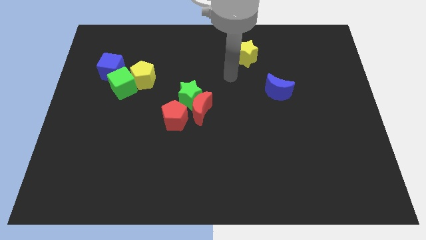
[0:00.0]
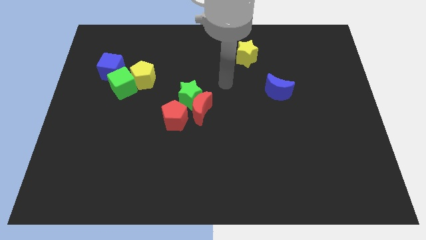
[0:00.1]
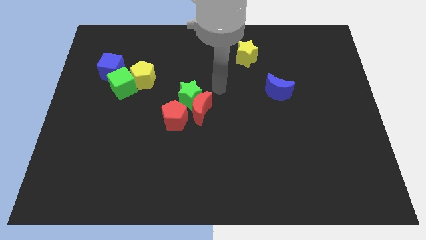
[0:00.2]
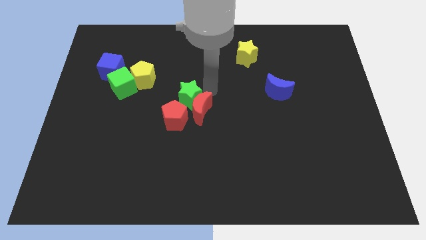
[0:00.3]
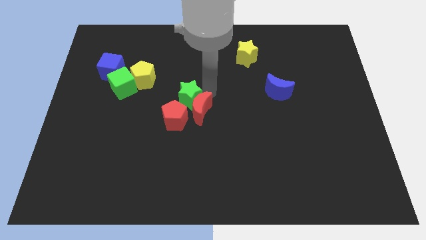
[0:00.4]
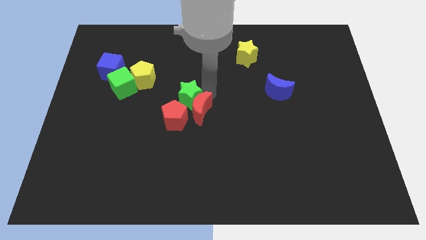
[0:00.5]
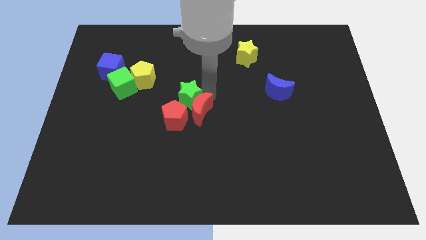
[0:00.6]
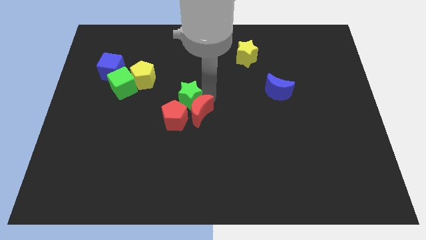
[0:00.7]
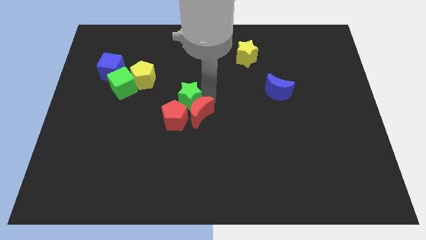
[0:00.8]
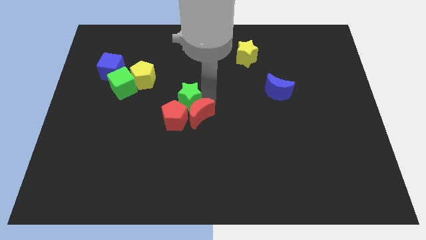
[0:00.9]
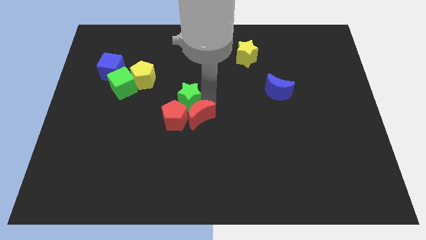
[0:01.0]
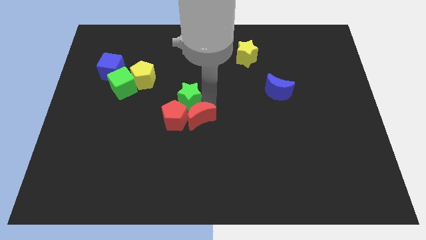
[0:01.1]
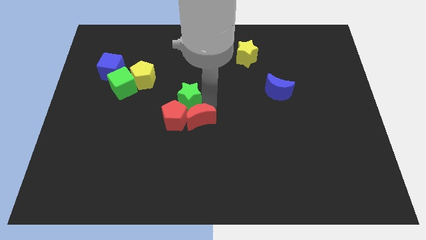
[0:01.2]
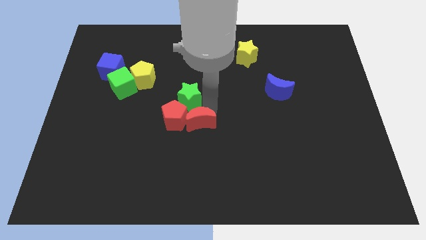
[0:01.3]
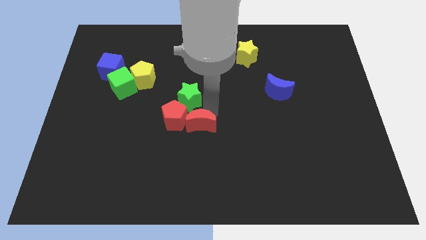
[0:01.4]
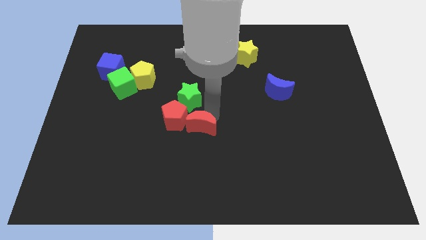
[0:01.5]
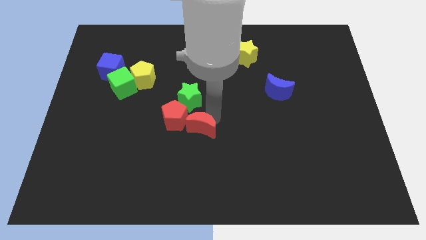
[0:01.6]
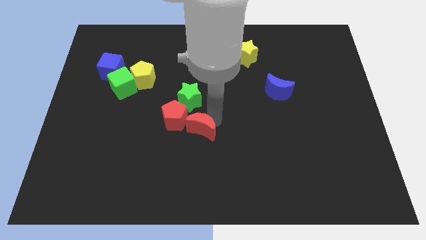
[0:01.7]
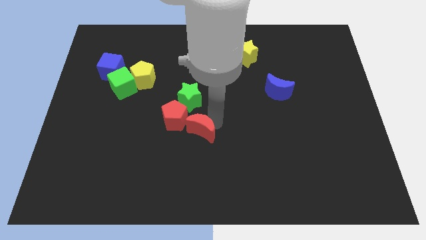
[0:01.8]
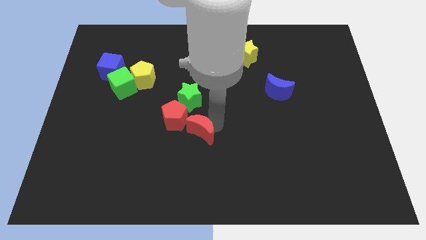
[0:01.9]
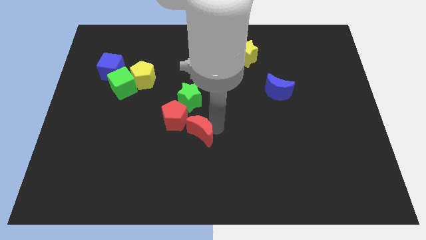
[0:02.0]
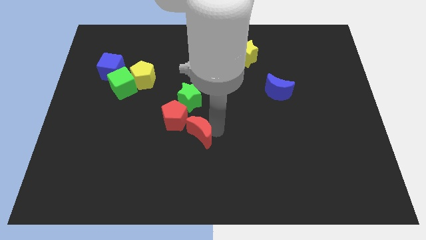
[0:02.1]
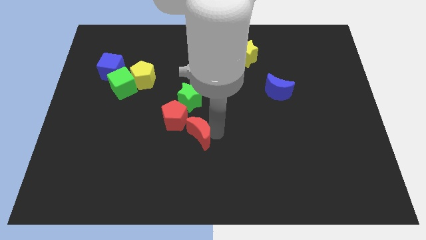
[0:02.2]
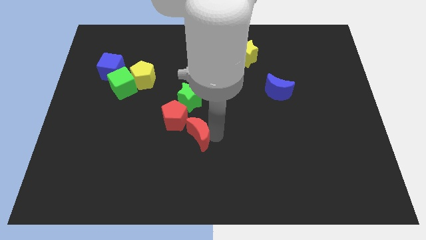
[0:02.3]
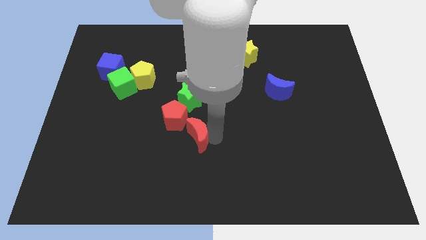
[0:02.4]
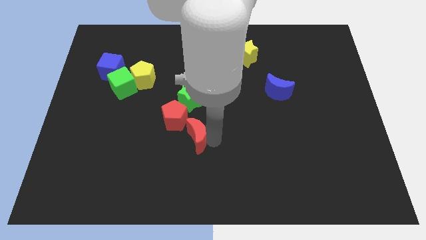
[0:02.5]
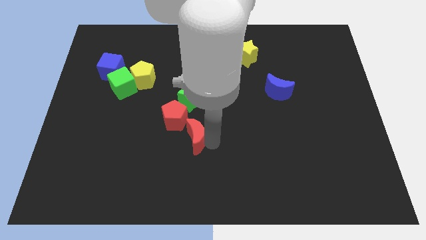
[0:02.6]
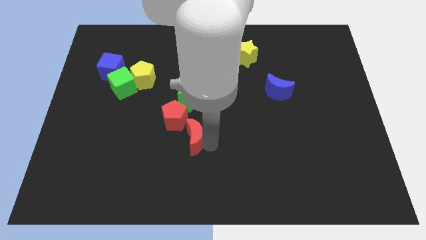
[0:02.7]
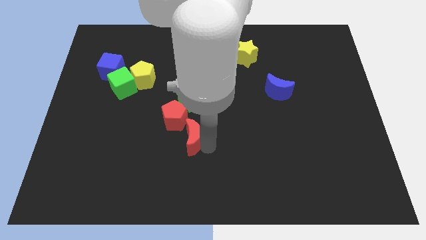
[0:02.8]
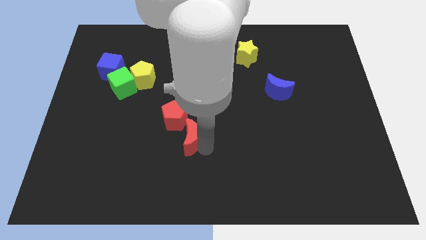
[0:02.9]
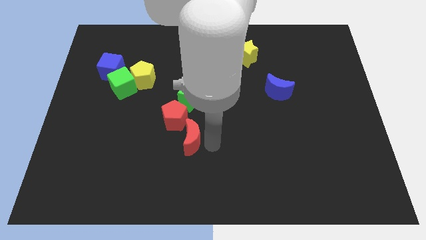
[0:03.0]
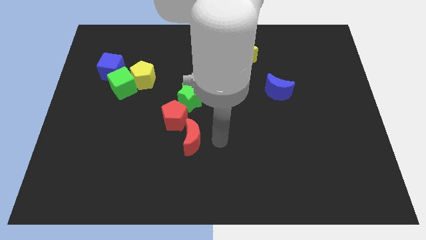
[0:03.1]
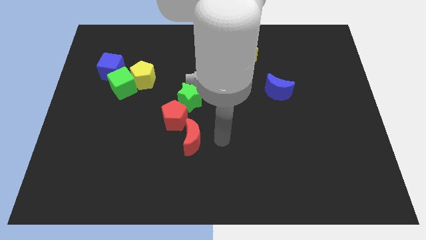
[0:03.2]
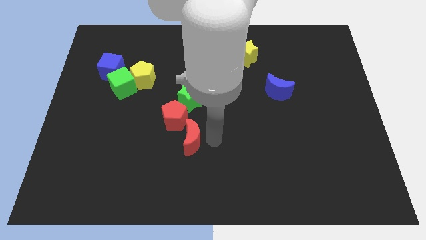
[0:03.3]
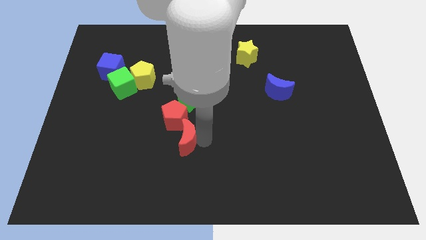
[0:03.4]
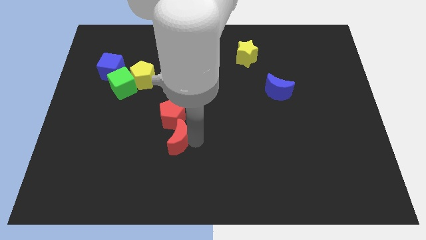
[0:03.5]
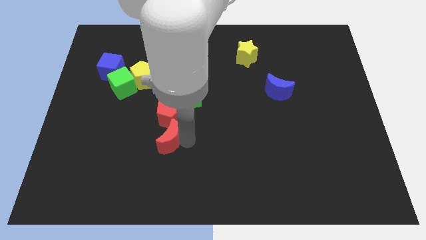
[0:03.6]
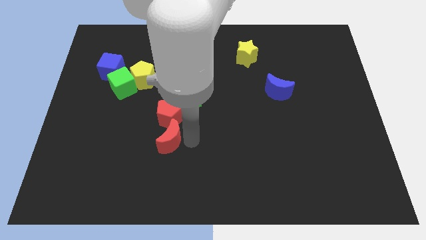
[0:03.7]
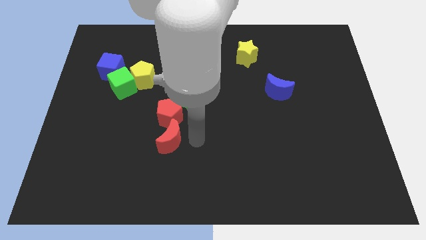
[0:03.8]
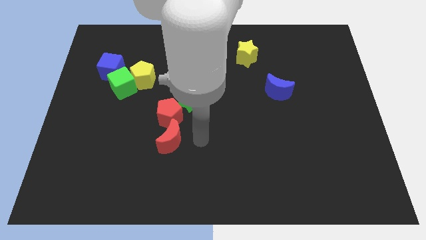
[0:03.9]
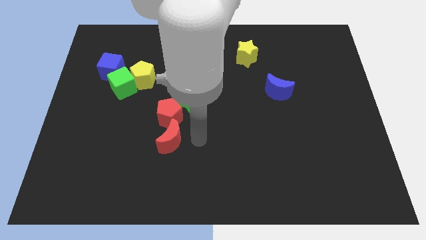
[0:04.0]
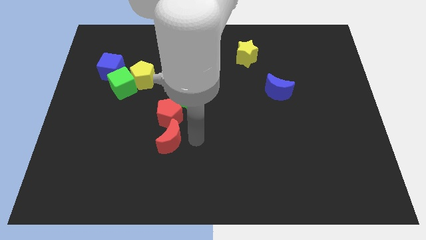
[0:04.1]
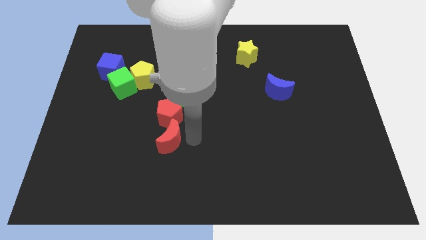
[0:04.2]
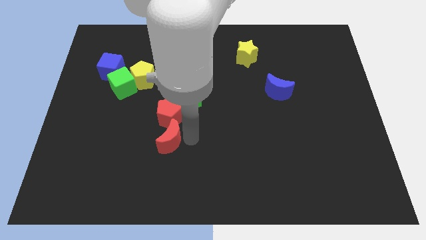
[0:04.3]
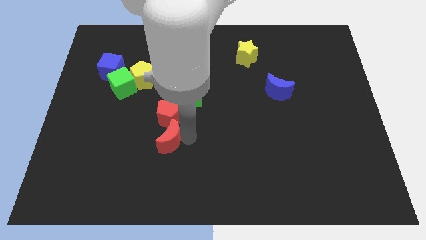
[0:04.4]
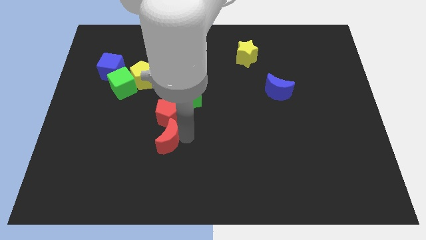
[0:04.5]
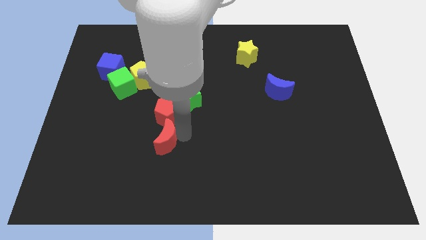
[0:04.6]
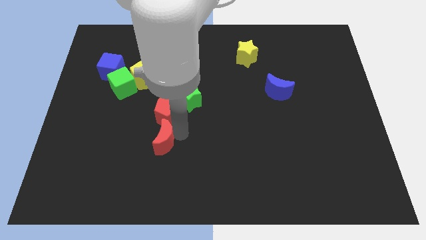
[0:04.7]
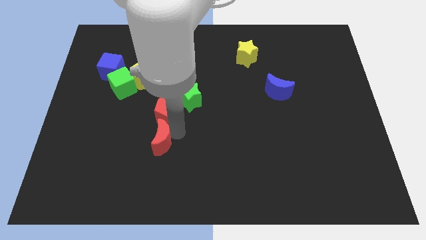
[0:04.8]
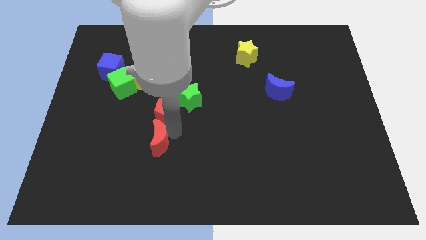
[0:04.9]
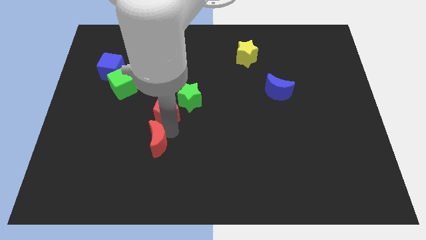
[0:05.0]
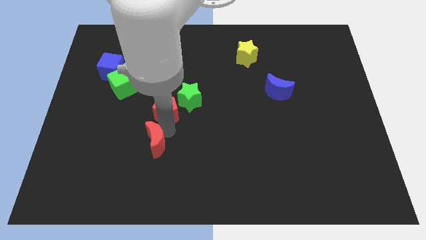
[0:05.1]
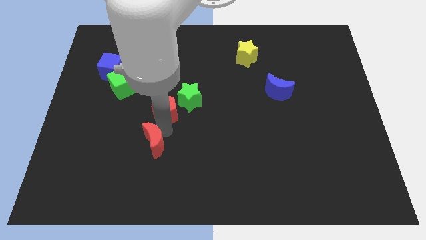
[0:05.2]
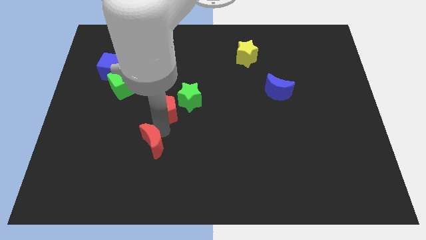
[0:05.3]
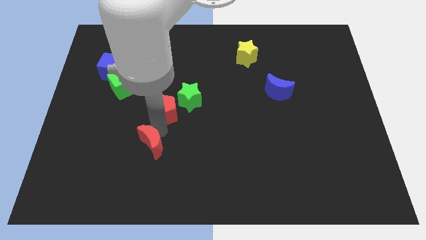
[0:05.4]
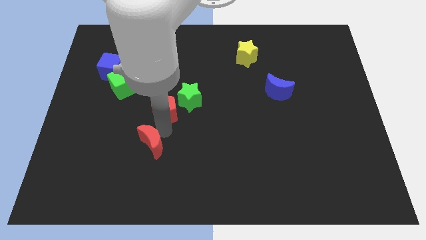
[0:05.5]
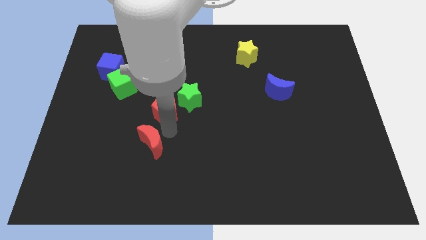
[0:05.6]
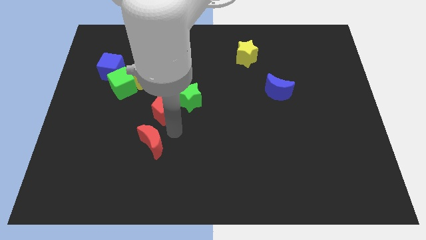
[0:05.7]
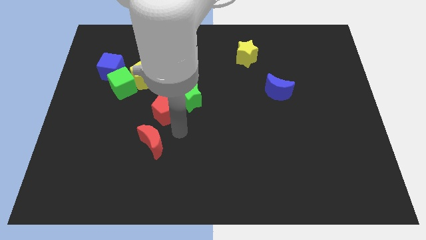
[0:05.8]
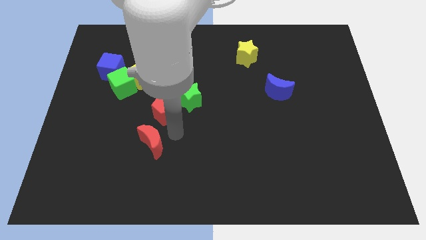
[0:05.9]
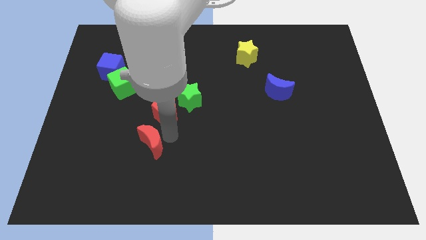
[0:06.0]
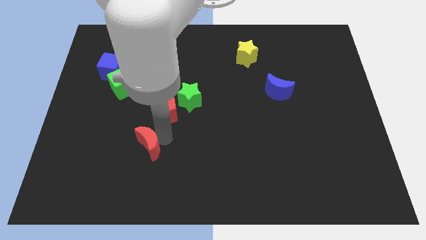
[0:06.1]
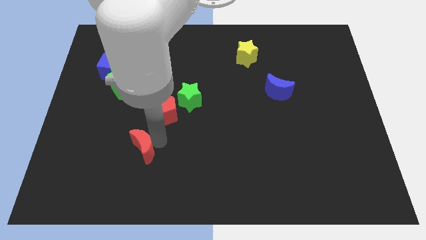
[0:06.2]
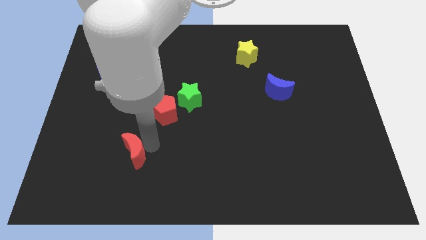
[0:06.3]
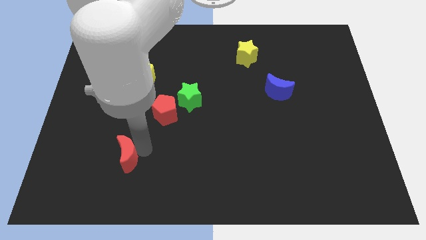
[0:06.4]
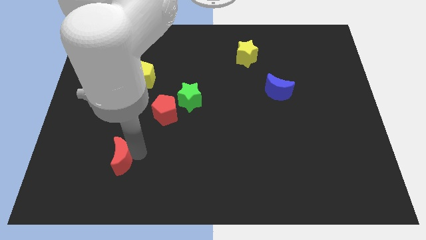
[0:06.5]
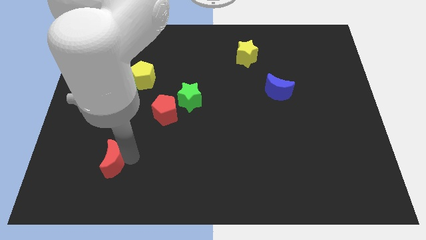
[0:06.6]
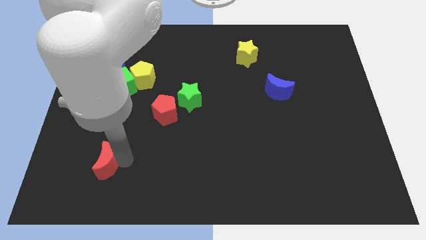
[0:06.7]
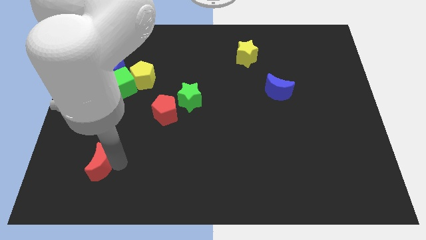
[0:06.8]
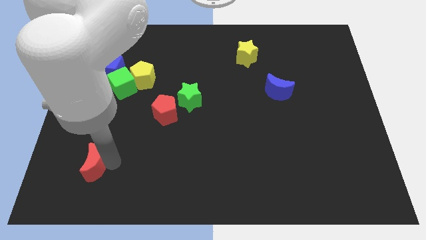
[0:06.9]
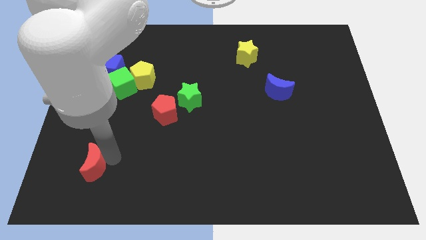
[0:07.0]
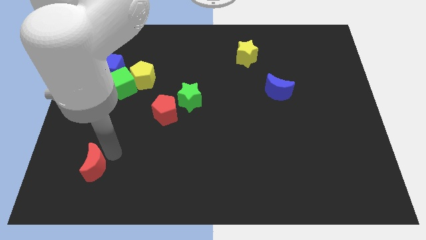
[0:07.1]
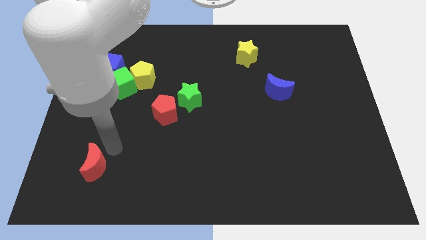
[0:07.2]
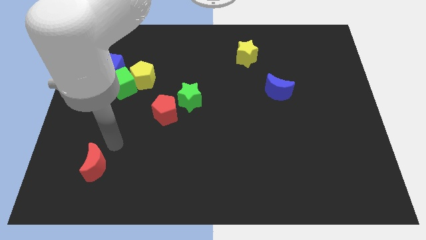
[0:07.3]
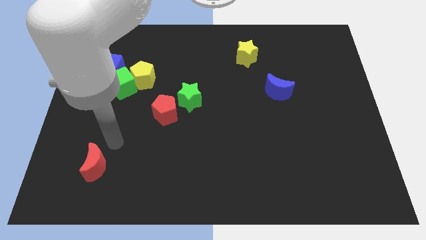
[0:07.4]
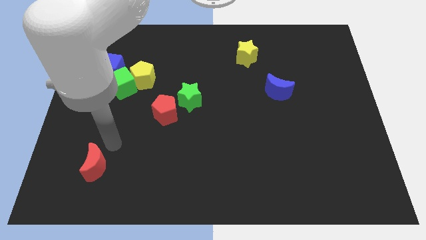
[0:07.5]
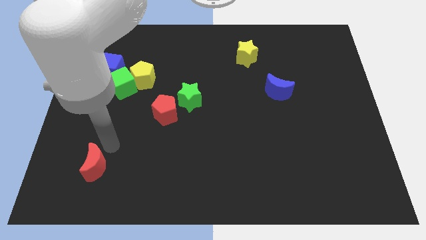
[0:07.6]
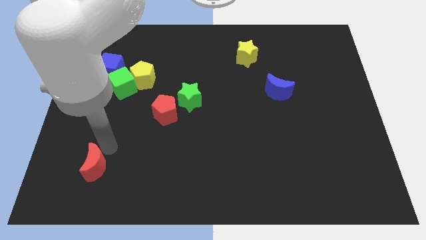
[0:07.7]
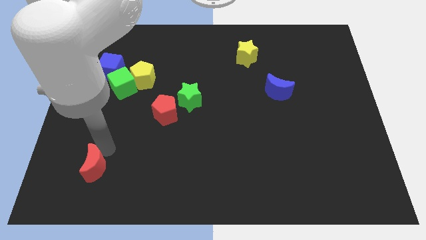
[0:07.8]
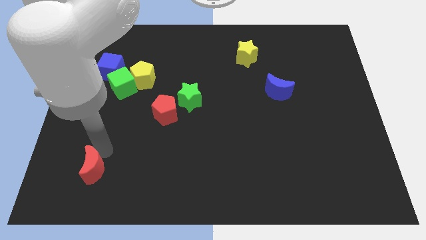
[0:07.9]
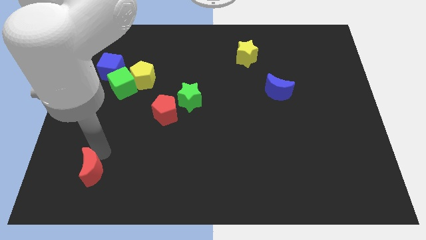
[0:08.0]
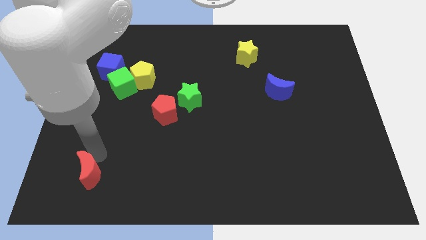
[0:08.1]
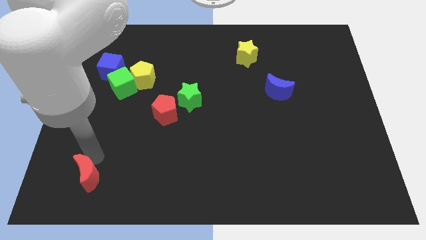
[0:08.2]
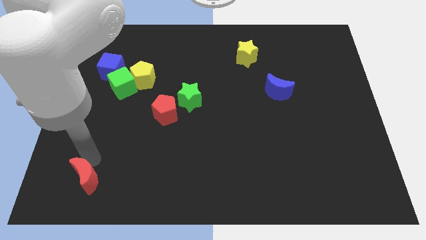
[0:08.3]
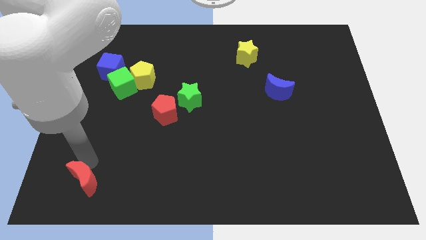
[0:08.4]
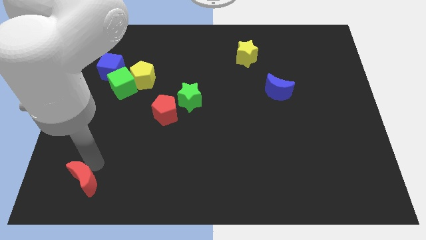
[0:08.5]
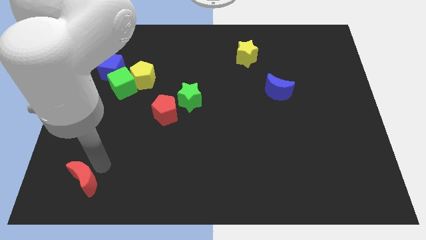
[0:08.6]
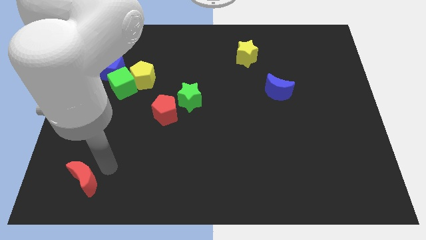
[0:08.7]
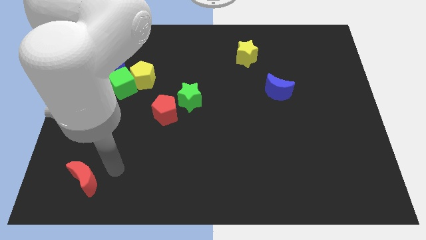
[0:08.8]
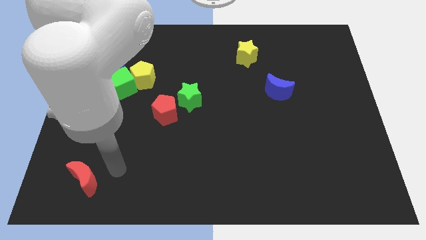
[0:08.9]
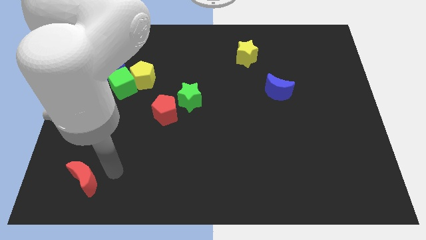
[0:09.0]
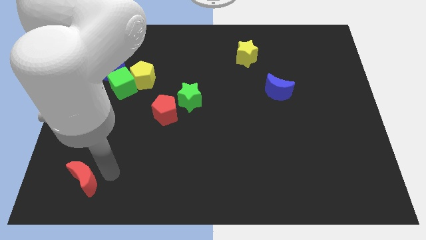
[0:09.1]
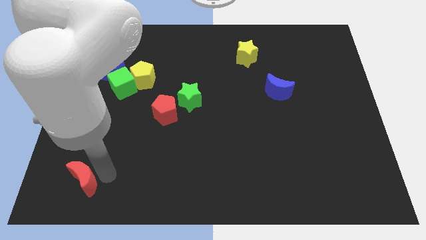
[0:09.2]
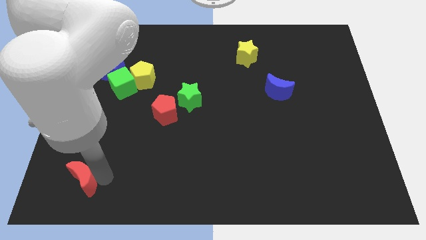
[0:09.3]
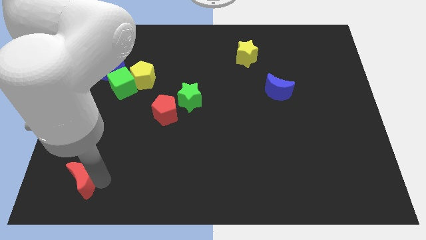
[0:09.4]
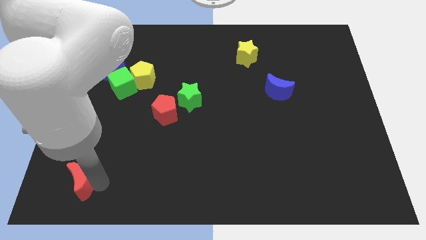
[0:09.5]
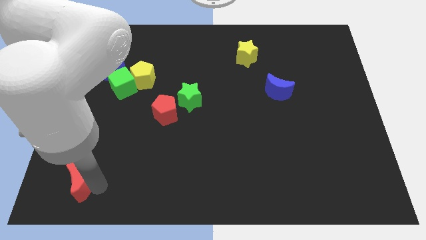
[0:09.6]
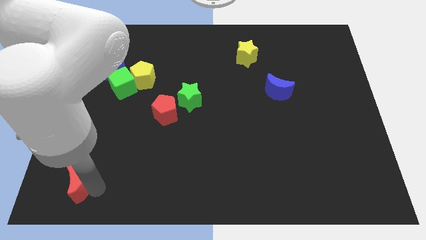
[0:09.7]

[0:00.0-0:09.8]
slide the red moon to the lower left corner
